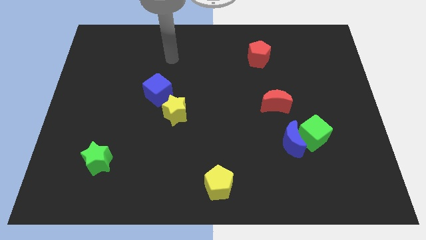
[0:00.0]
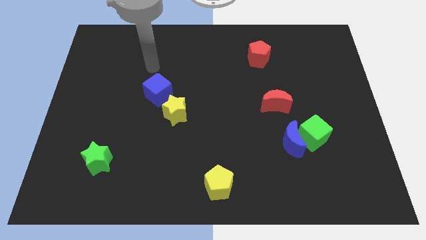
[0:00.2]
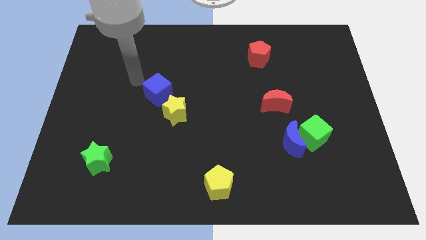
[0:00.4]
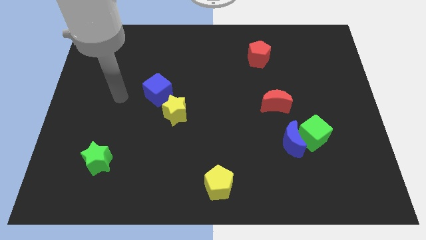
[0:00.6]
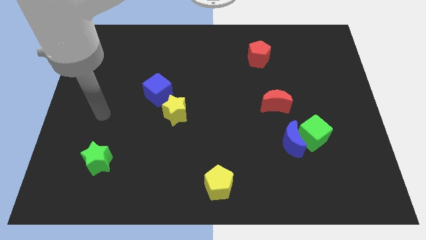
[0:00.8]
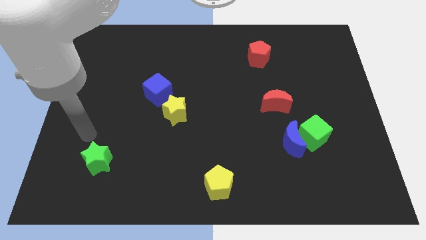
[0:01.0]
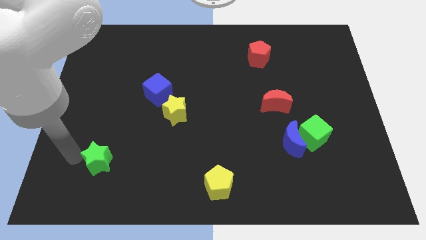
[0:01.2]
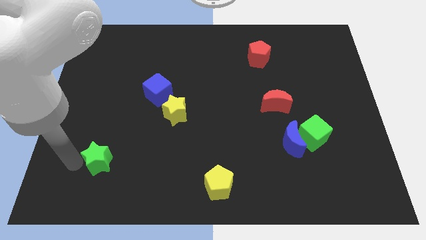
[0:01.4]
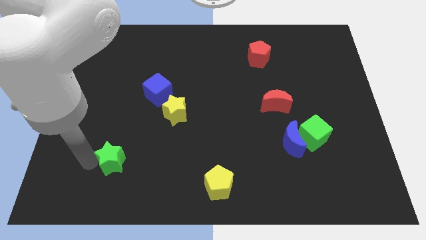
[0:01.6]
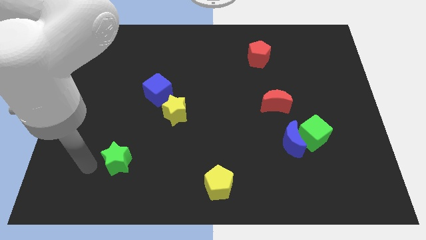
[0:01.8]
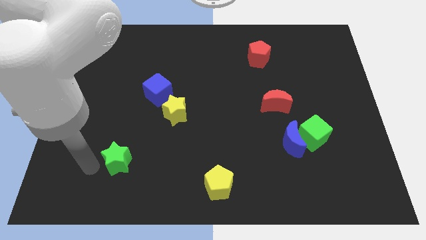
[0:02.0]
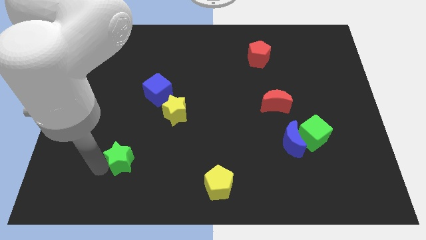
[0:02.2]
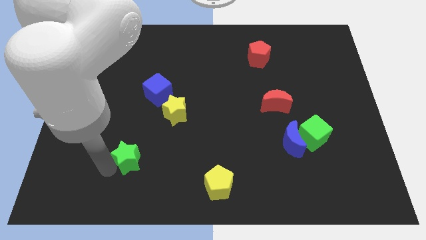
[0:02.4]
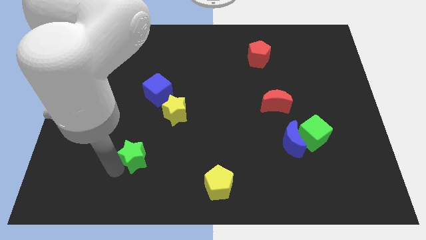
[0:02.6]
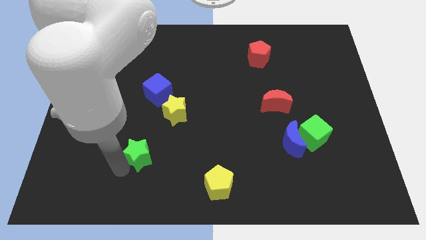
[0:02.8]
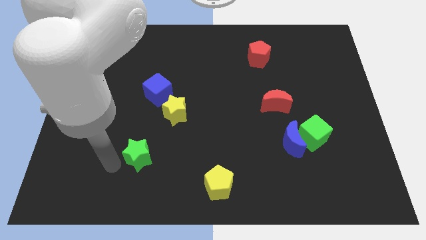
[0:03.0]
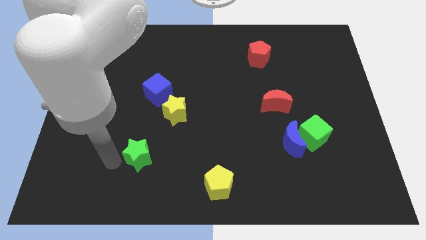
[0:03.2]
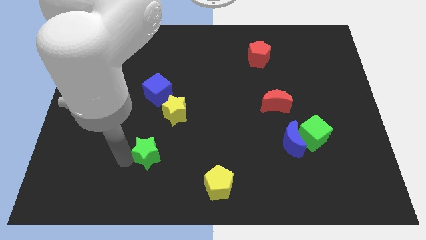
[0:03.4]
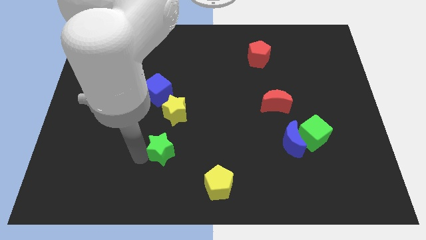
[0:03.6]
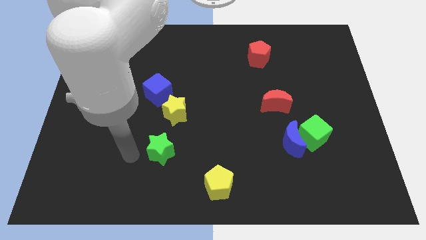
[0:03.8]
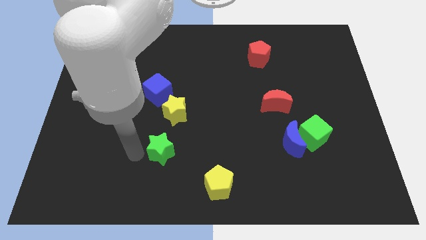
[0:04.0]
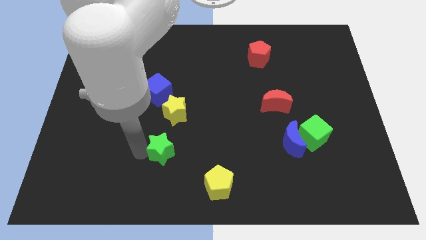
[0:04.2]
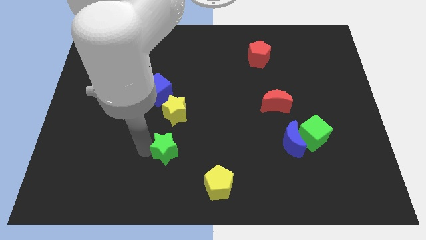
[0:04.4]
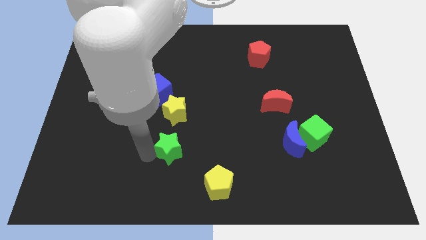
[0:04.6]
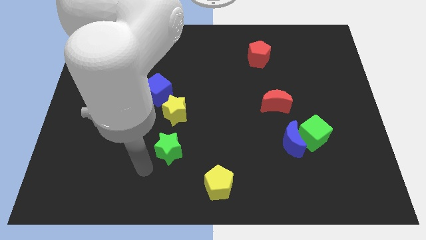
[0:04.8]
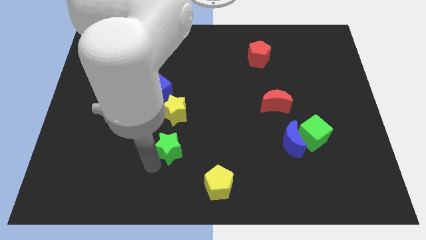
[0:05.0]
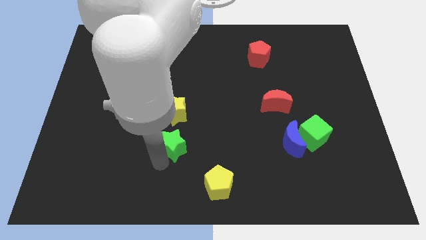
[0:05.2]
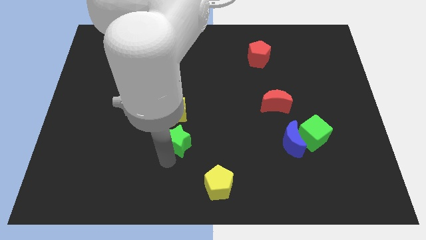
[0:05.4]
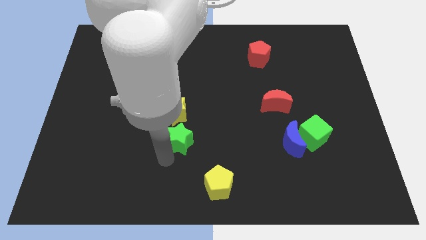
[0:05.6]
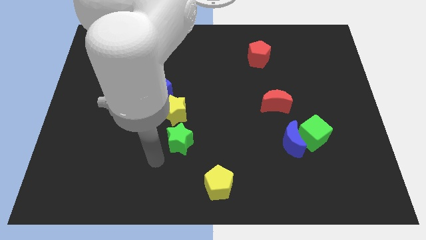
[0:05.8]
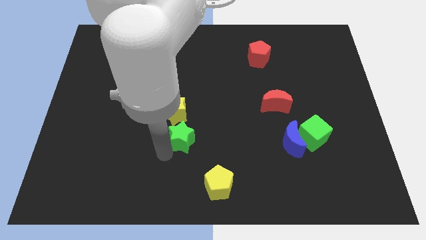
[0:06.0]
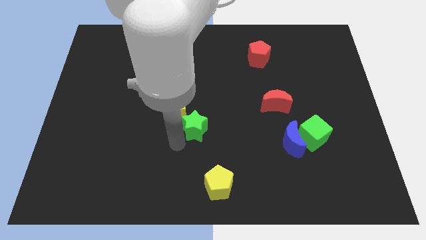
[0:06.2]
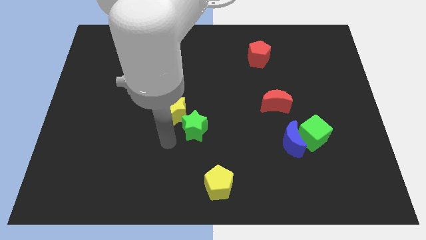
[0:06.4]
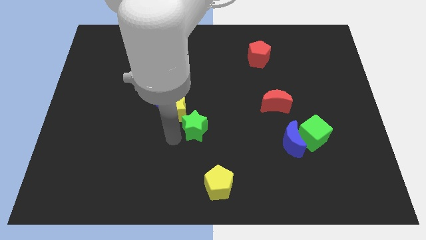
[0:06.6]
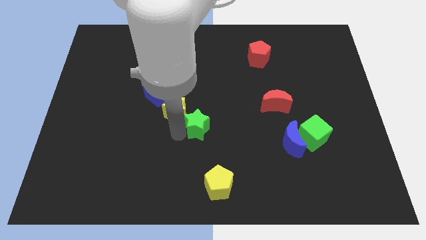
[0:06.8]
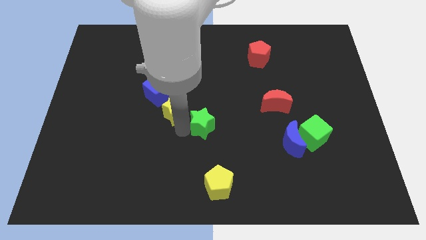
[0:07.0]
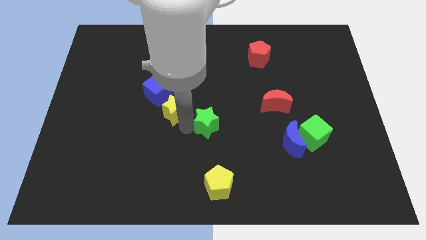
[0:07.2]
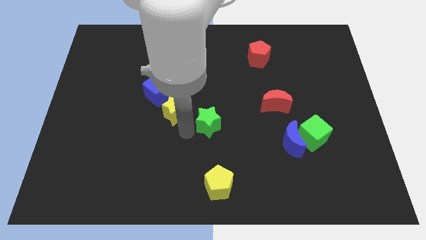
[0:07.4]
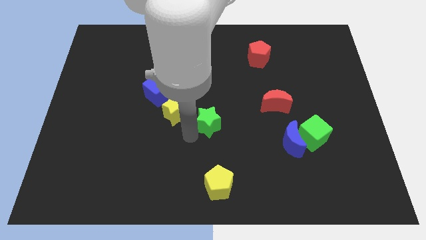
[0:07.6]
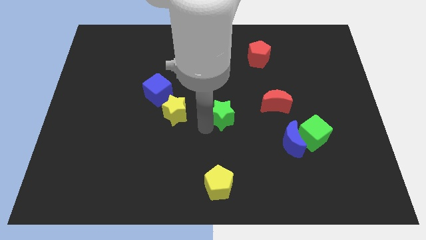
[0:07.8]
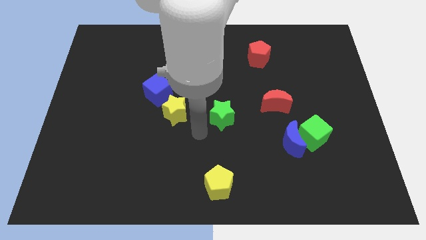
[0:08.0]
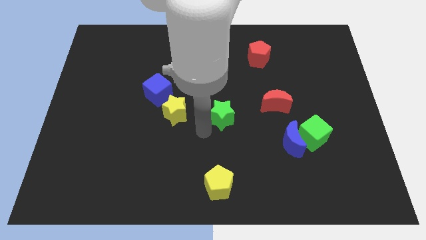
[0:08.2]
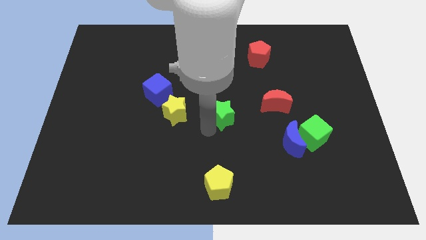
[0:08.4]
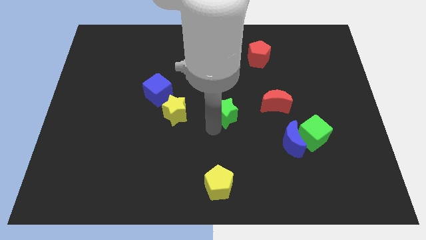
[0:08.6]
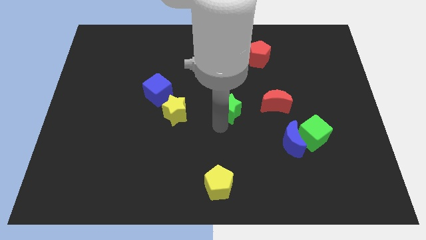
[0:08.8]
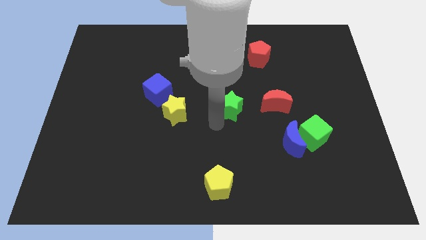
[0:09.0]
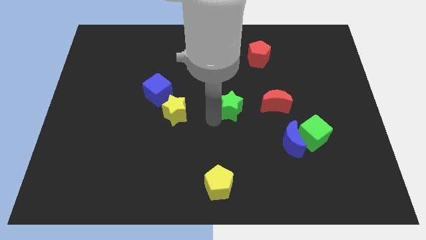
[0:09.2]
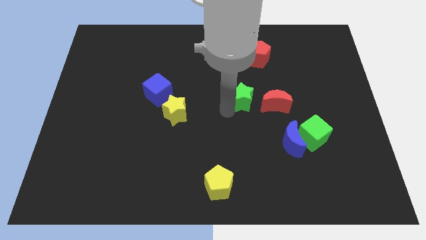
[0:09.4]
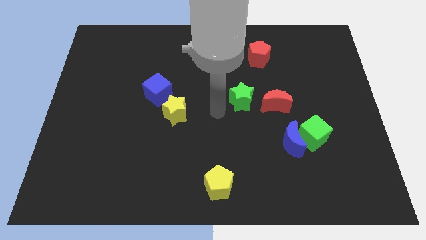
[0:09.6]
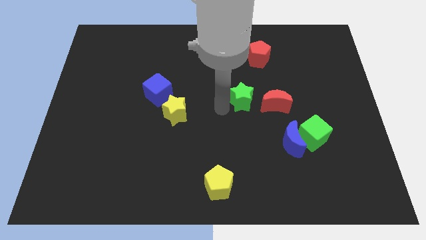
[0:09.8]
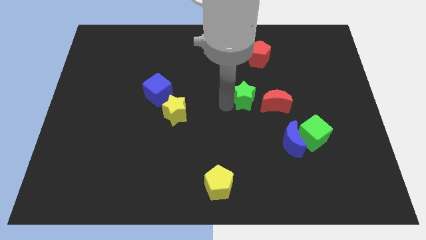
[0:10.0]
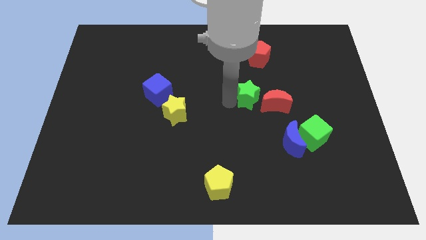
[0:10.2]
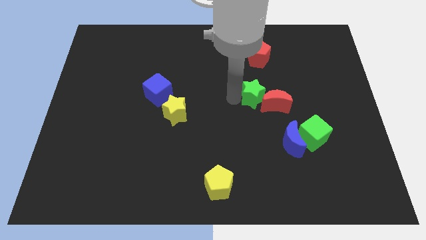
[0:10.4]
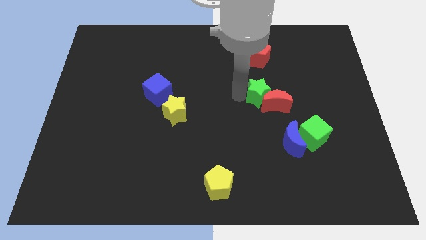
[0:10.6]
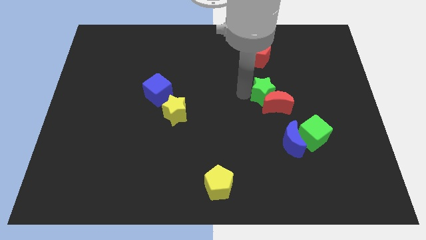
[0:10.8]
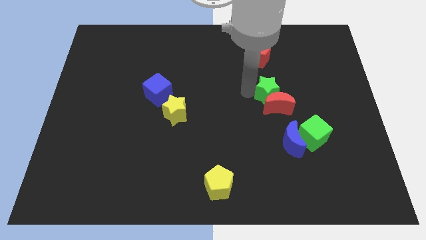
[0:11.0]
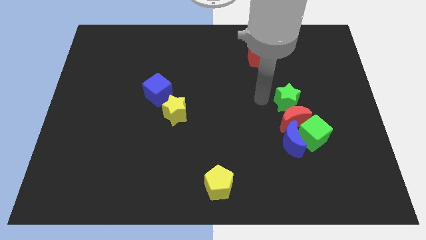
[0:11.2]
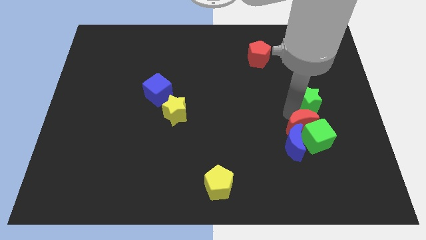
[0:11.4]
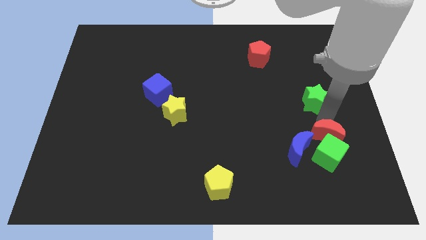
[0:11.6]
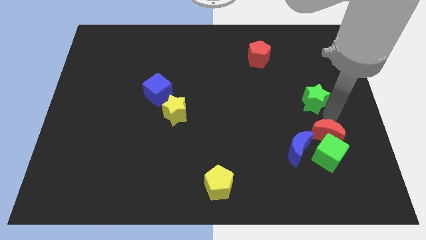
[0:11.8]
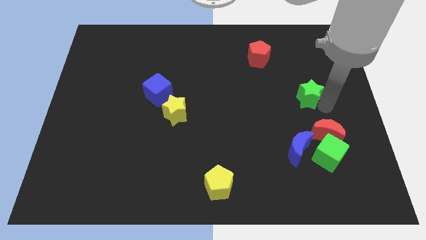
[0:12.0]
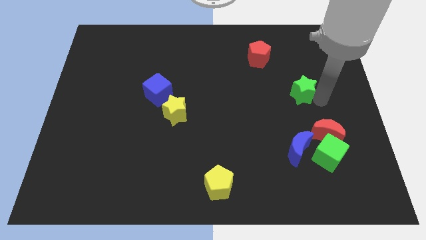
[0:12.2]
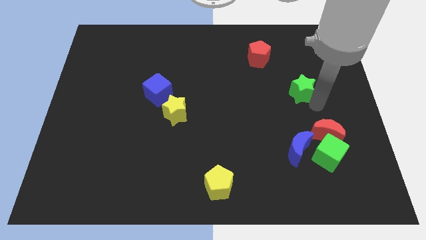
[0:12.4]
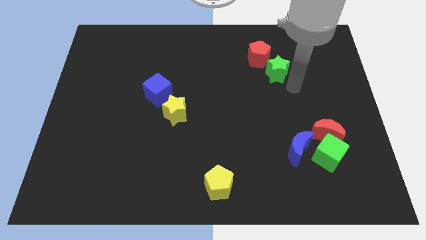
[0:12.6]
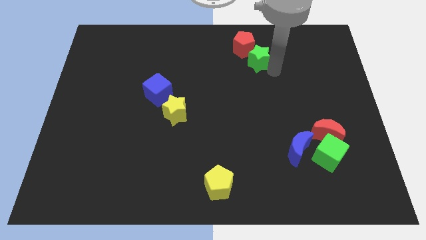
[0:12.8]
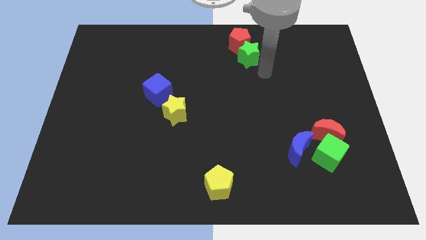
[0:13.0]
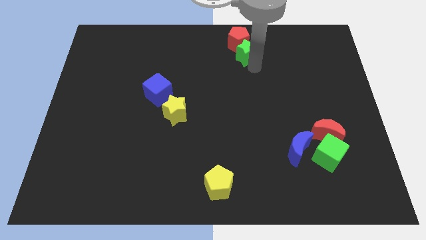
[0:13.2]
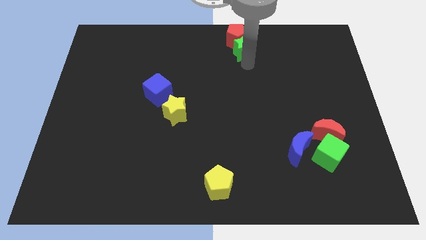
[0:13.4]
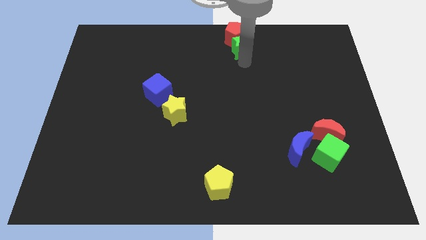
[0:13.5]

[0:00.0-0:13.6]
push the green star to the top
